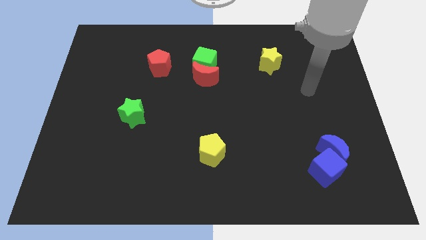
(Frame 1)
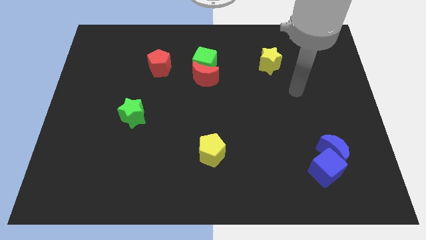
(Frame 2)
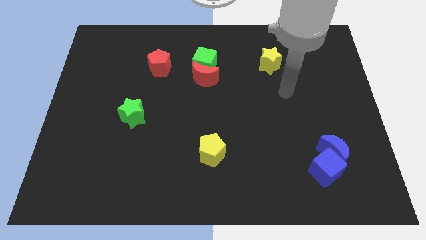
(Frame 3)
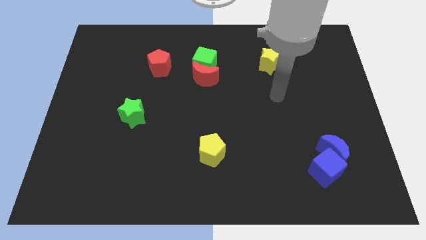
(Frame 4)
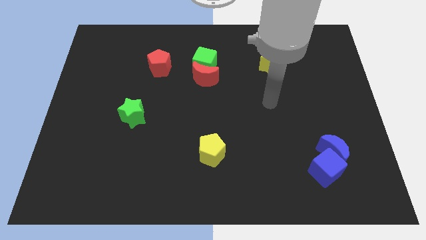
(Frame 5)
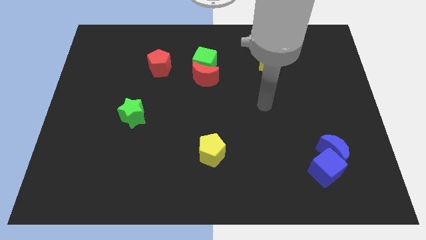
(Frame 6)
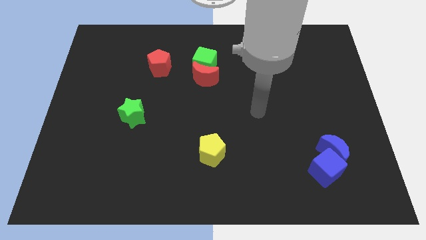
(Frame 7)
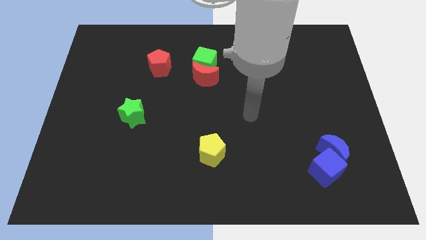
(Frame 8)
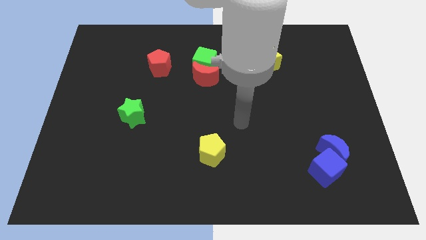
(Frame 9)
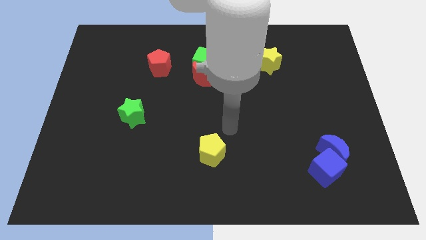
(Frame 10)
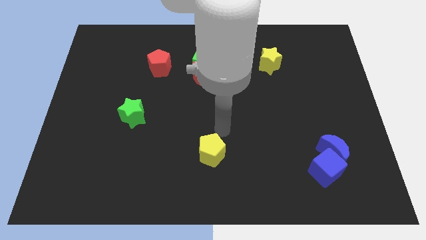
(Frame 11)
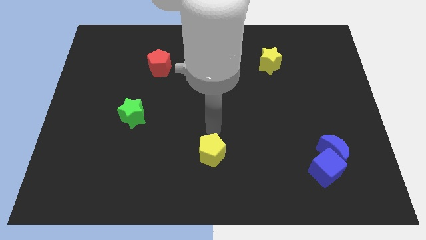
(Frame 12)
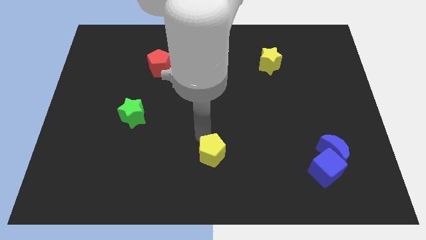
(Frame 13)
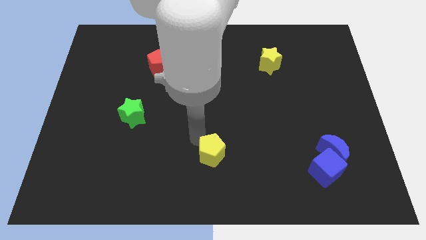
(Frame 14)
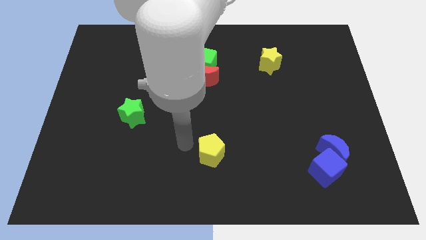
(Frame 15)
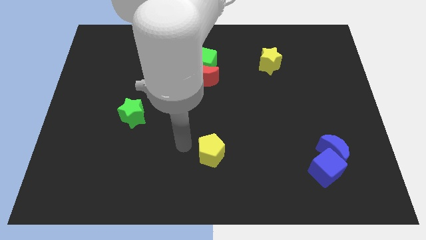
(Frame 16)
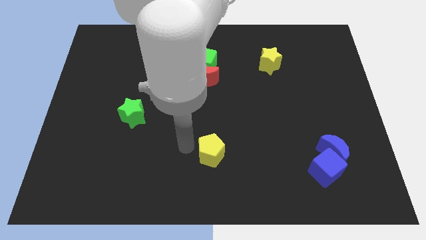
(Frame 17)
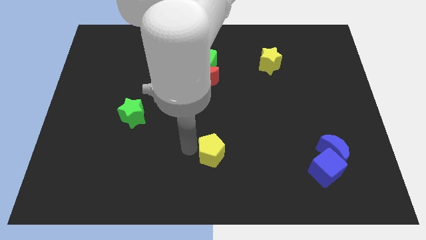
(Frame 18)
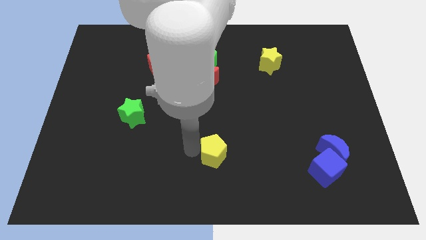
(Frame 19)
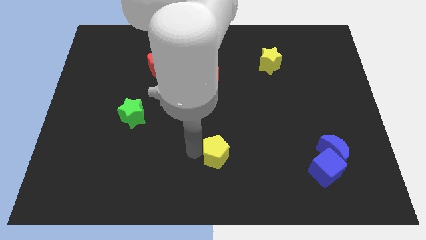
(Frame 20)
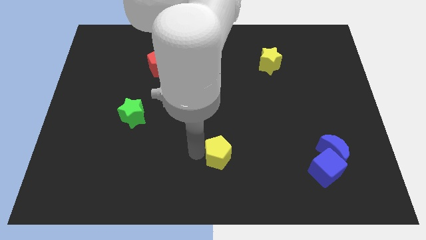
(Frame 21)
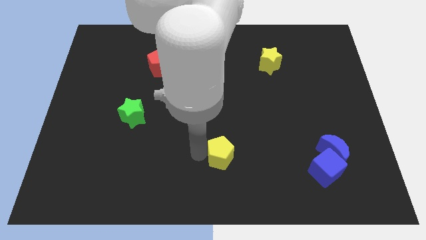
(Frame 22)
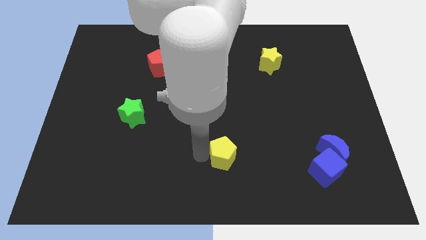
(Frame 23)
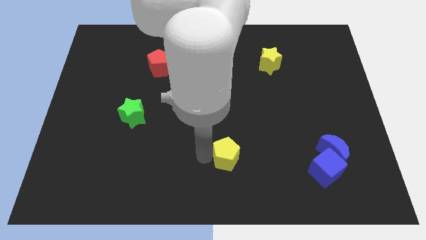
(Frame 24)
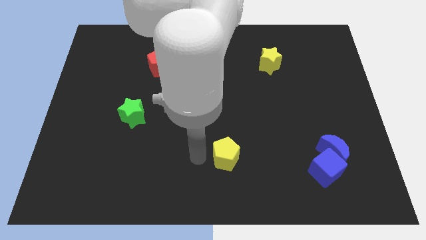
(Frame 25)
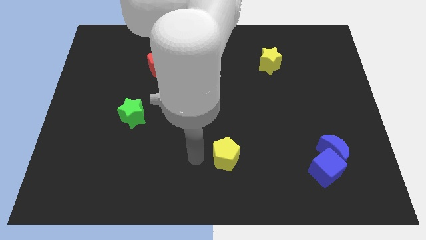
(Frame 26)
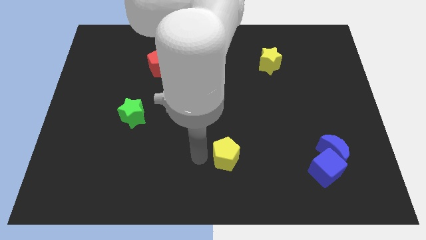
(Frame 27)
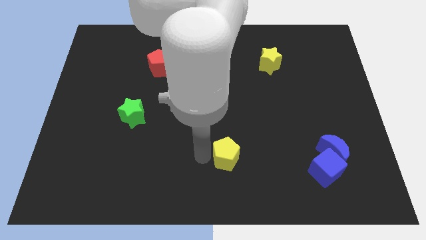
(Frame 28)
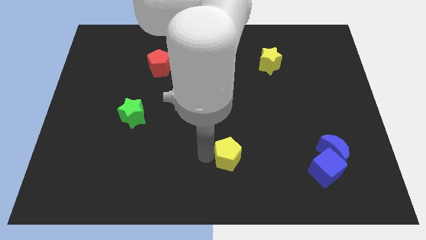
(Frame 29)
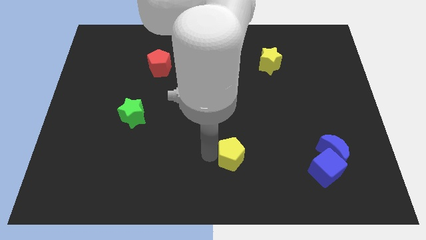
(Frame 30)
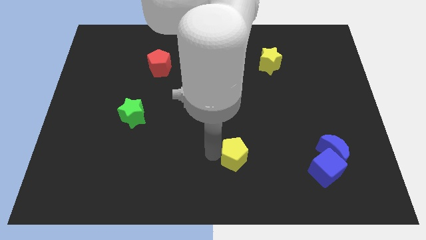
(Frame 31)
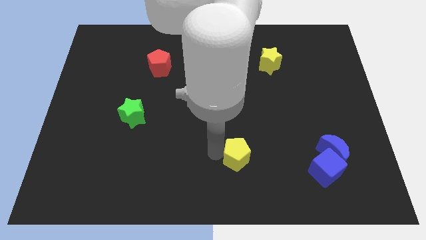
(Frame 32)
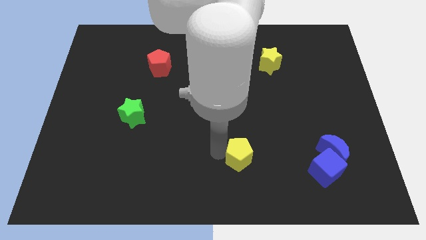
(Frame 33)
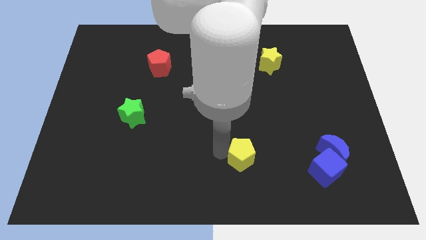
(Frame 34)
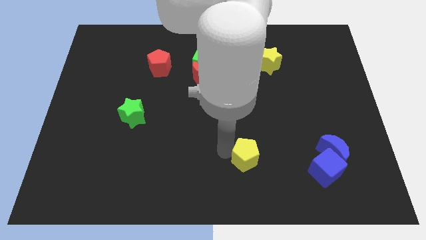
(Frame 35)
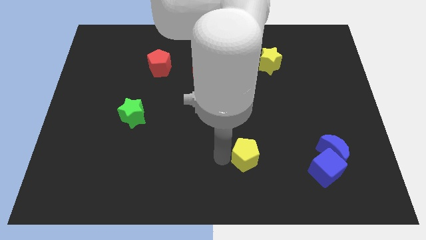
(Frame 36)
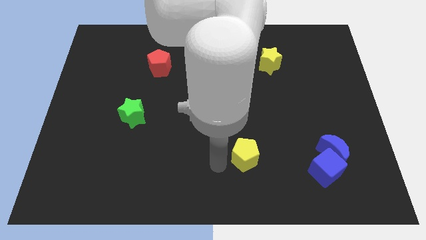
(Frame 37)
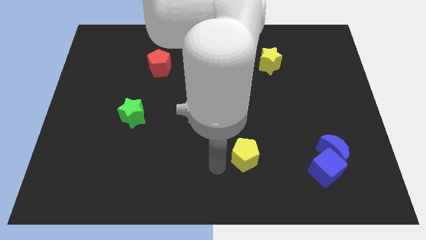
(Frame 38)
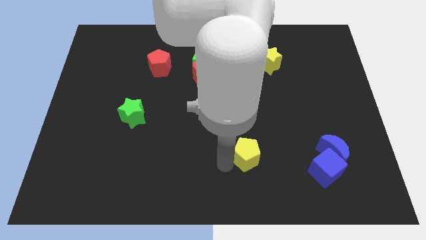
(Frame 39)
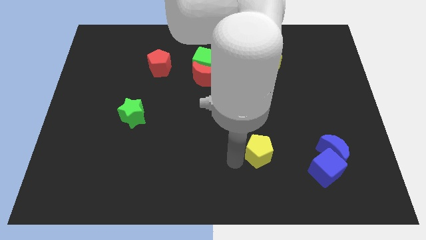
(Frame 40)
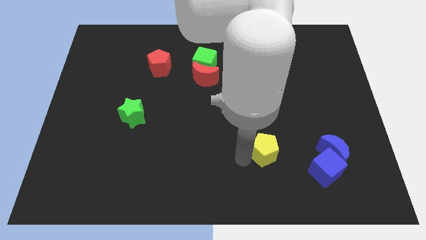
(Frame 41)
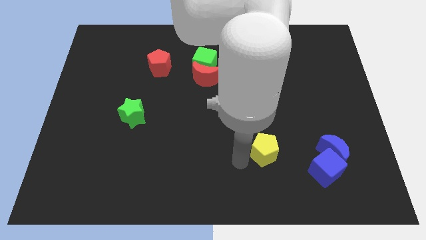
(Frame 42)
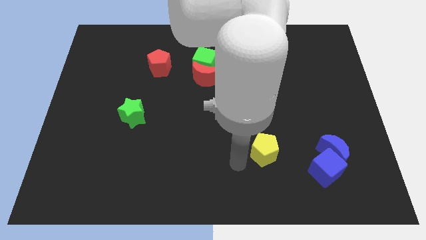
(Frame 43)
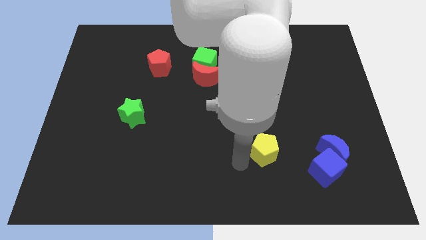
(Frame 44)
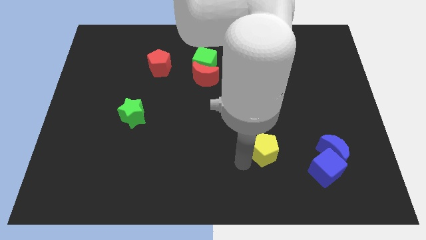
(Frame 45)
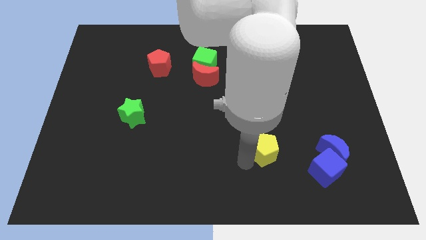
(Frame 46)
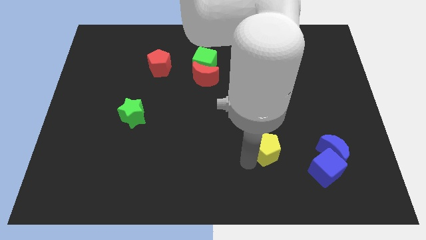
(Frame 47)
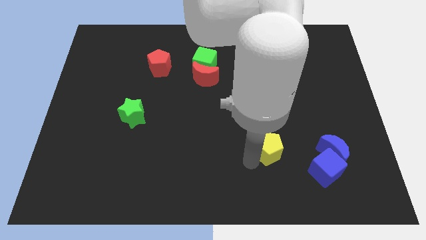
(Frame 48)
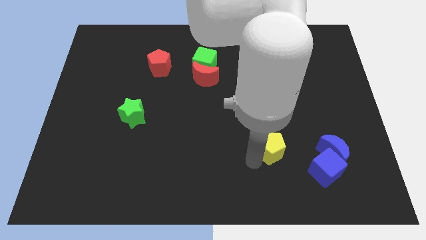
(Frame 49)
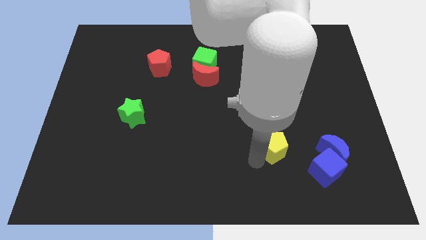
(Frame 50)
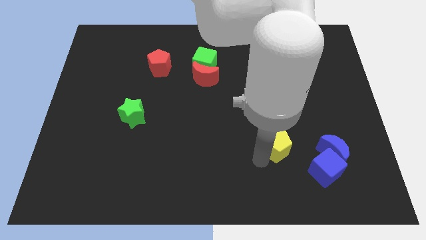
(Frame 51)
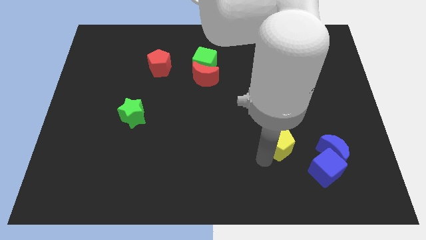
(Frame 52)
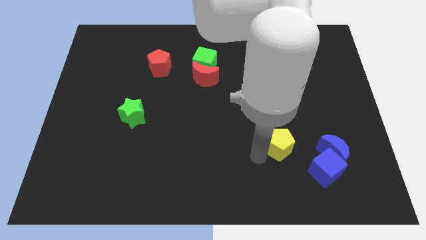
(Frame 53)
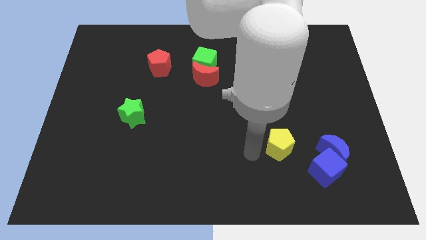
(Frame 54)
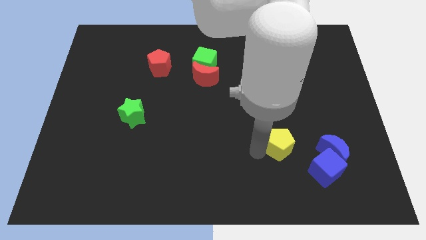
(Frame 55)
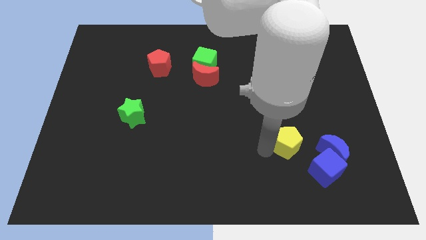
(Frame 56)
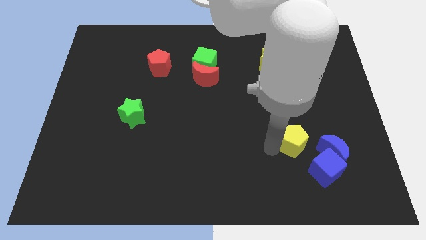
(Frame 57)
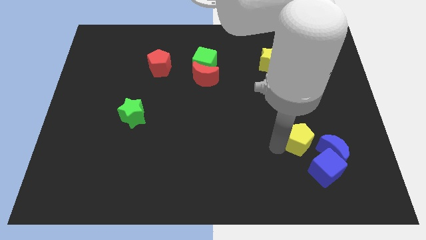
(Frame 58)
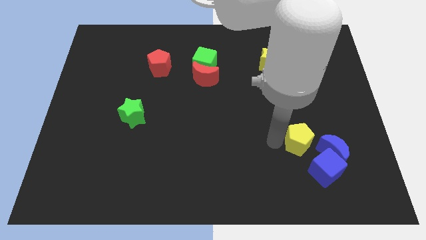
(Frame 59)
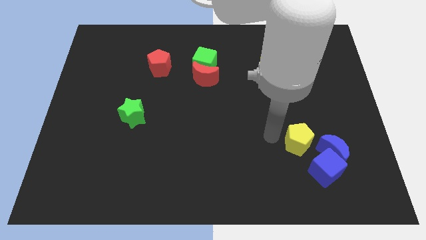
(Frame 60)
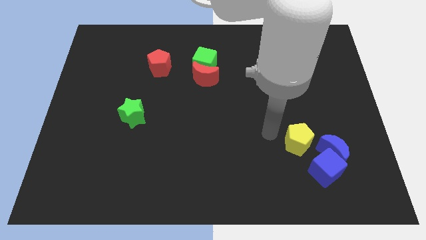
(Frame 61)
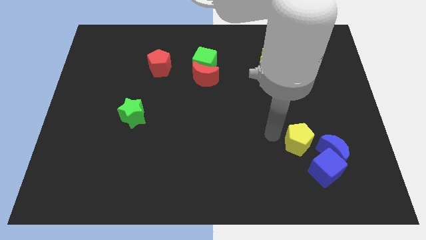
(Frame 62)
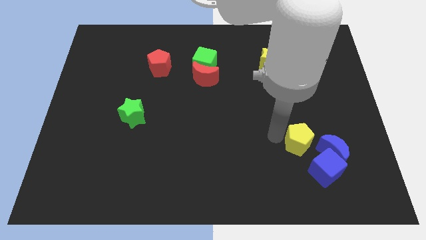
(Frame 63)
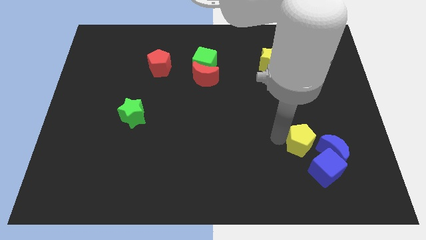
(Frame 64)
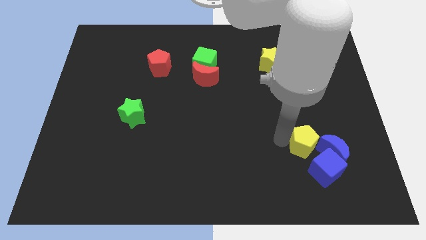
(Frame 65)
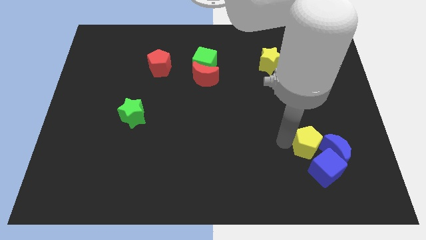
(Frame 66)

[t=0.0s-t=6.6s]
push the yellow pentagon towards the blue moon
